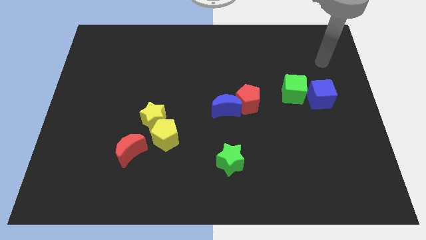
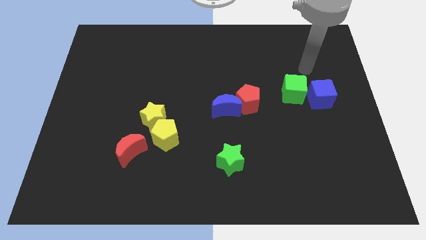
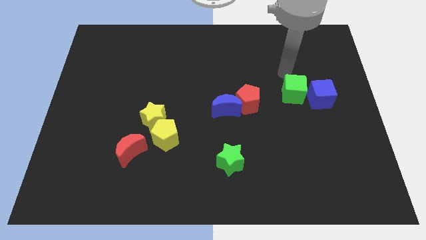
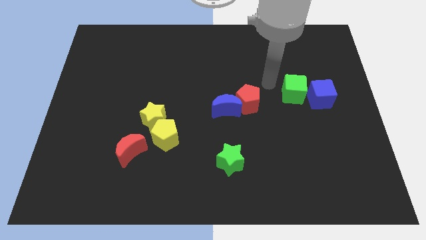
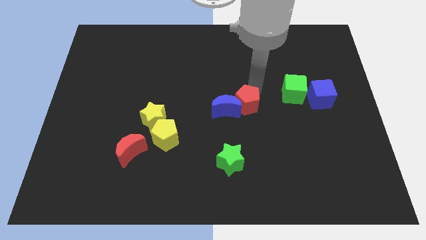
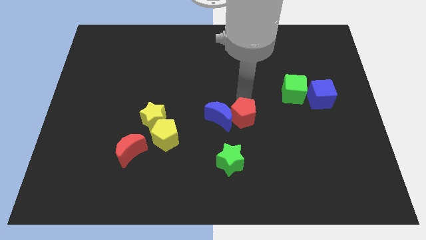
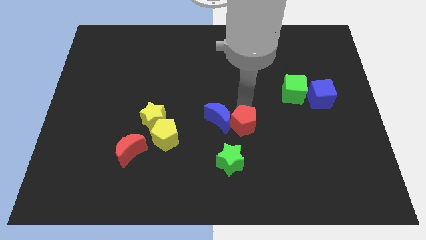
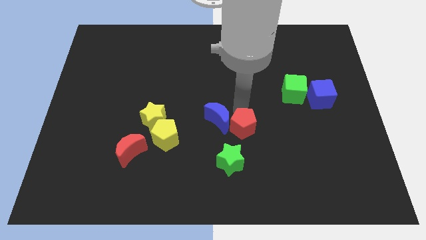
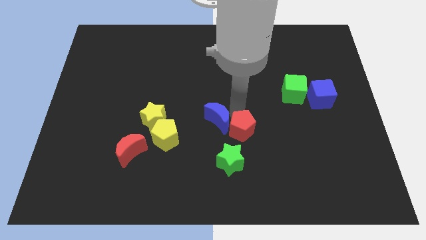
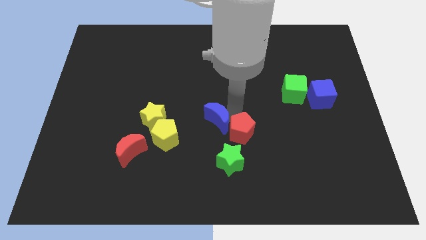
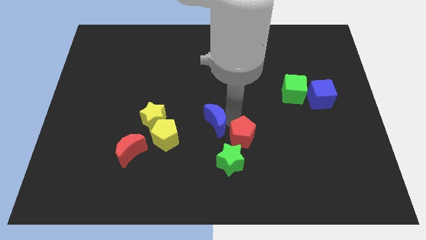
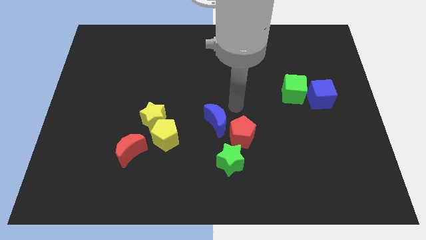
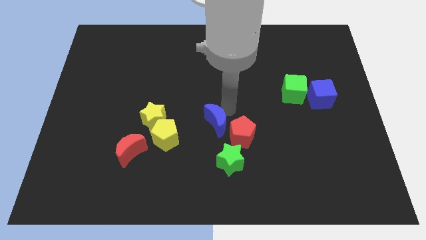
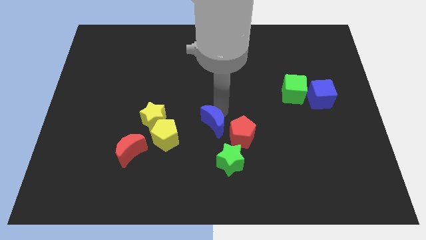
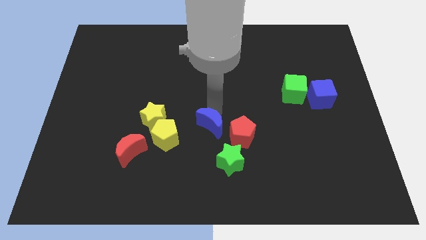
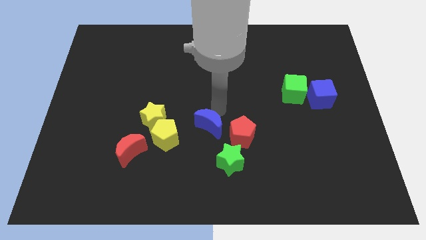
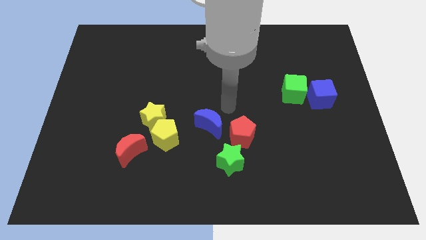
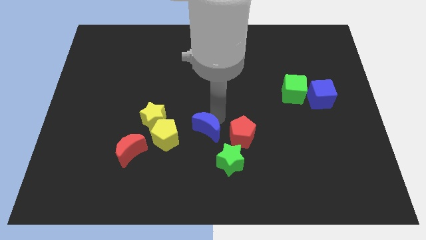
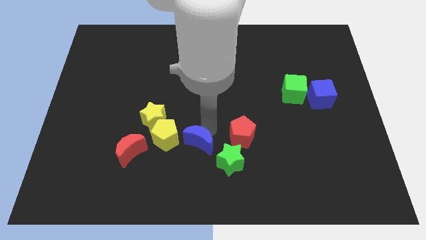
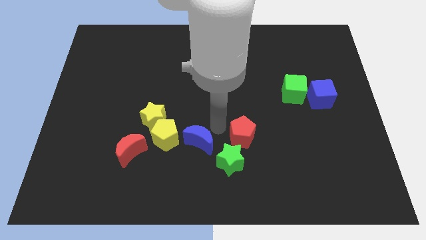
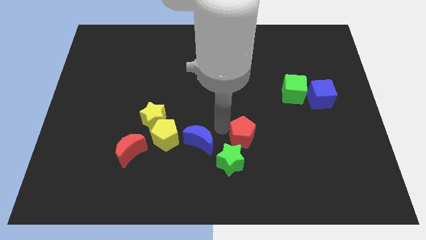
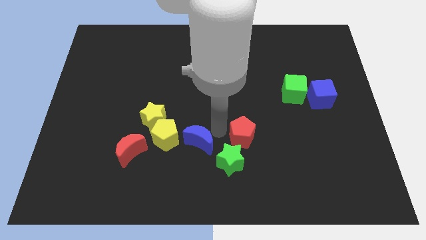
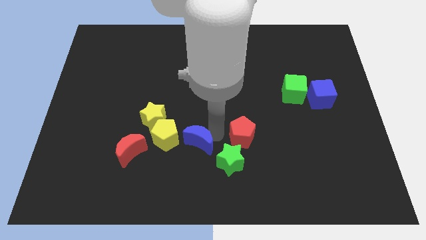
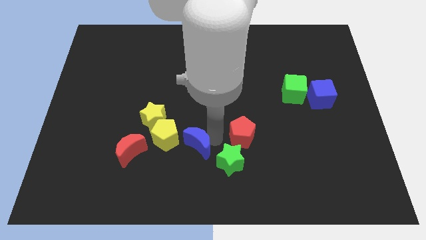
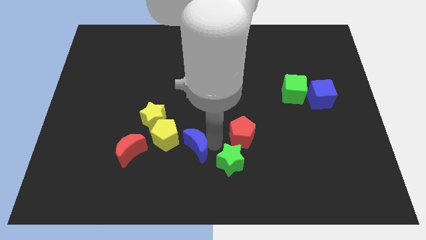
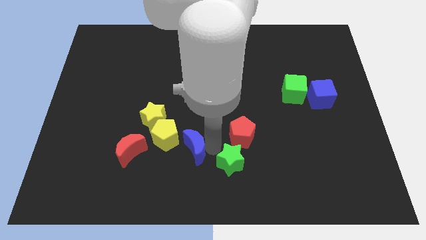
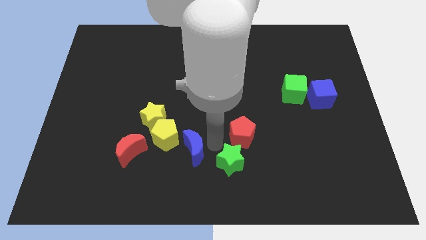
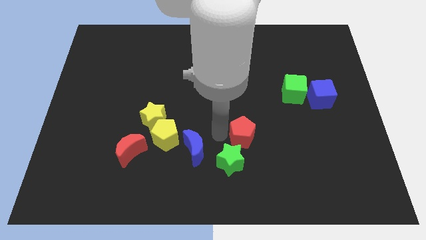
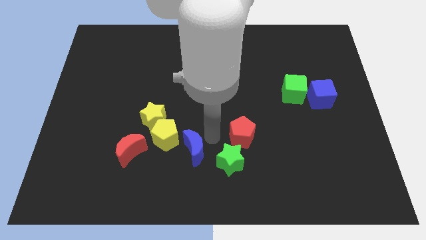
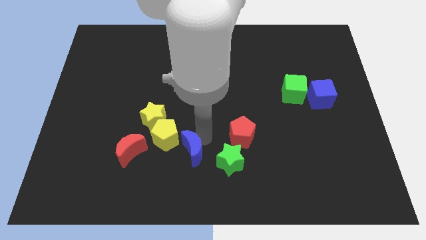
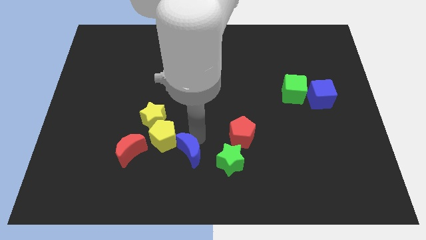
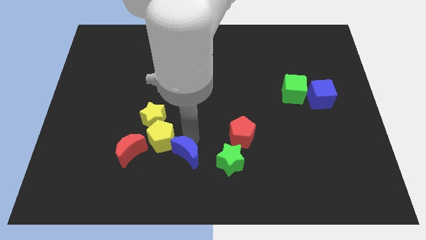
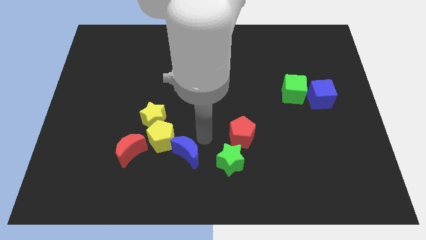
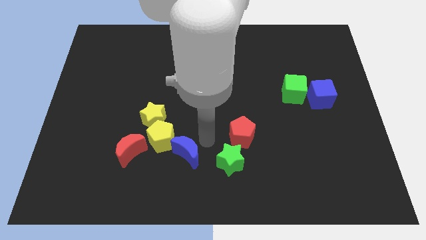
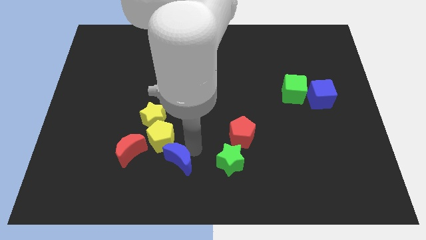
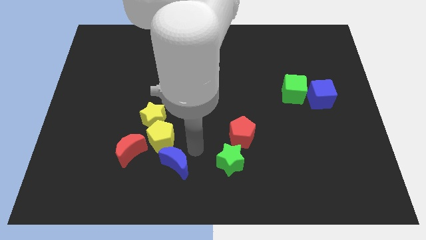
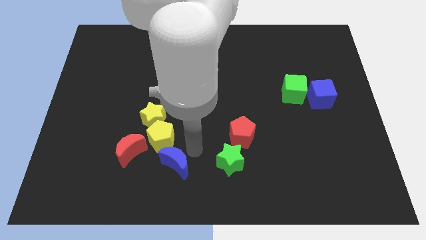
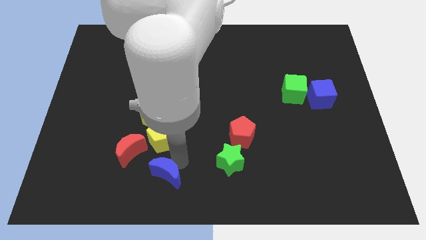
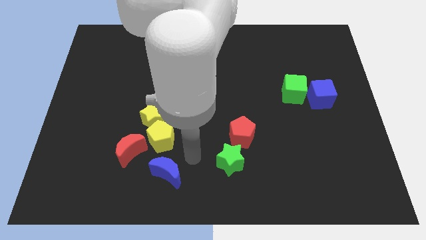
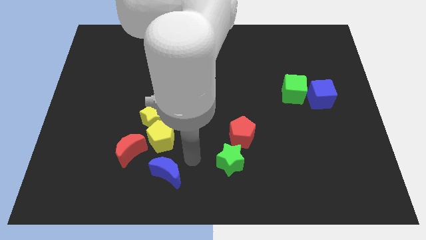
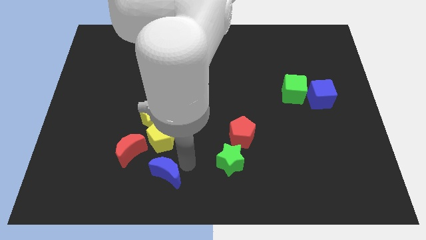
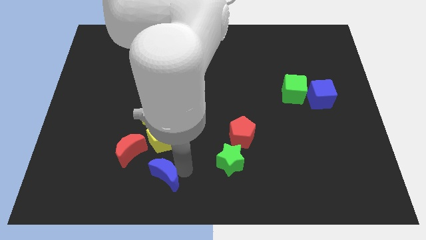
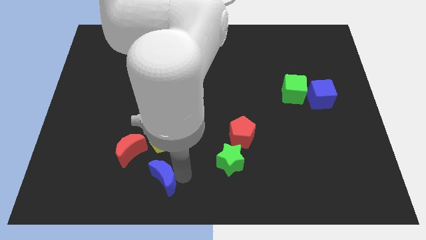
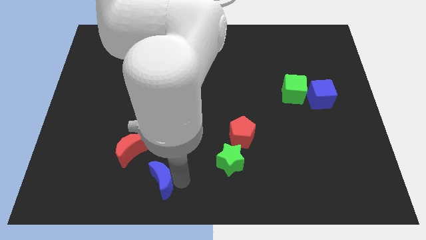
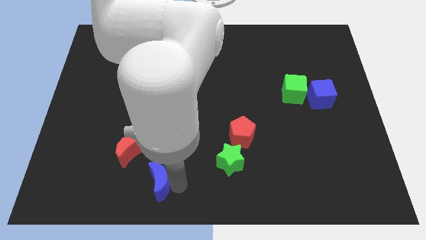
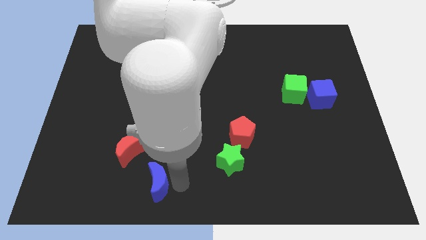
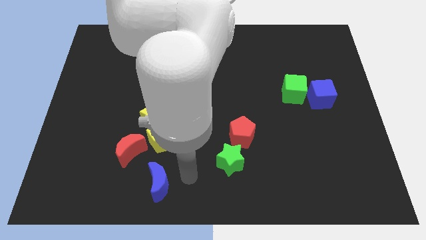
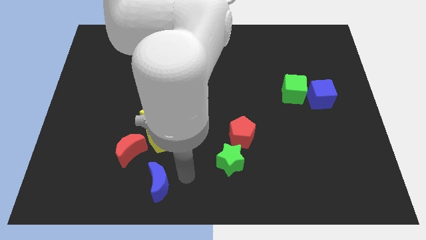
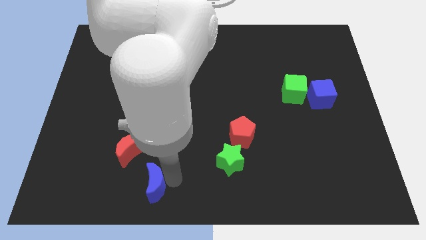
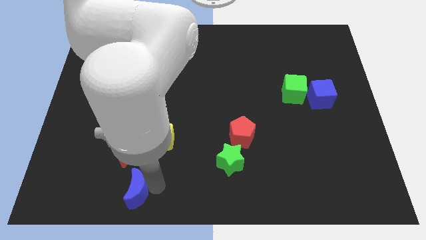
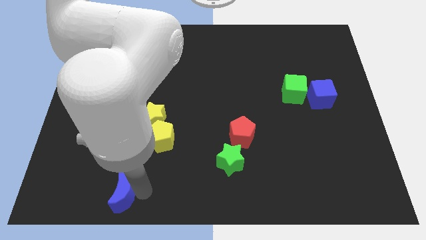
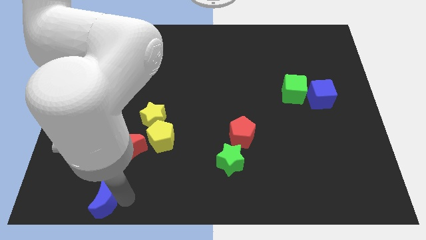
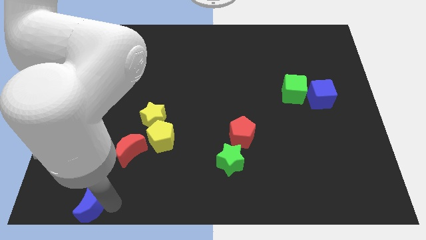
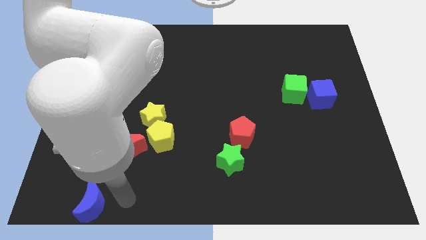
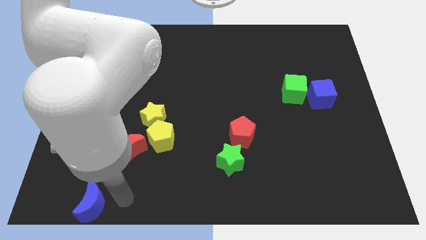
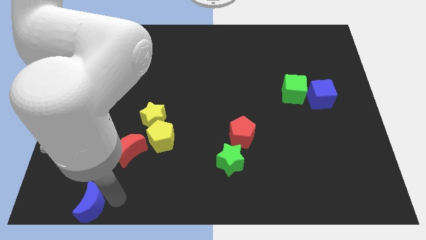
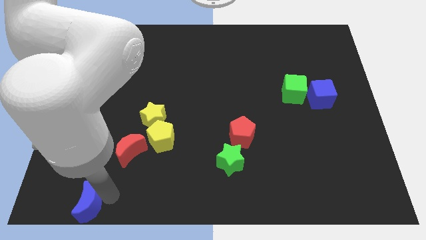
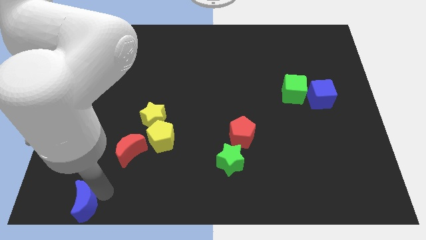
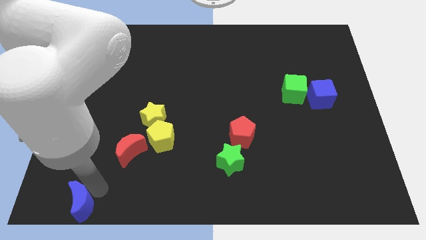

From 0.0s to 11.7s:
slide the blue moon to the bottom left corner

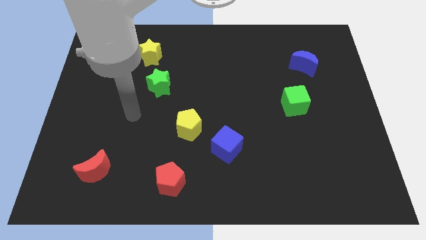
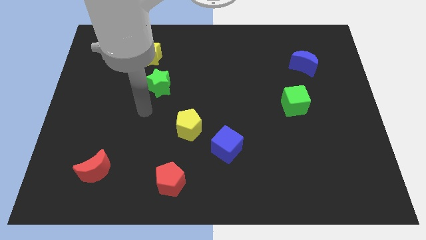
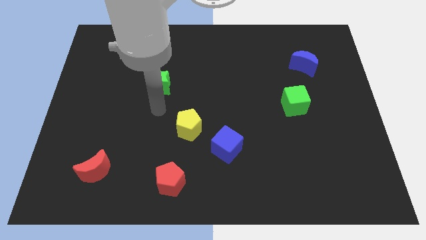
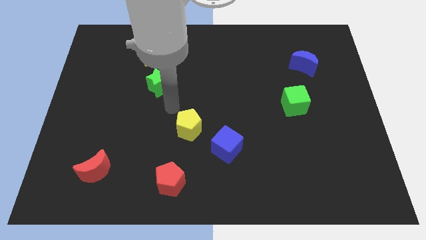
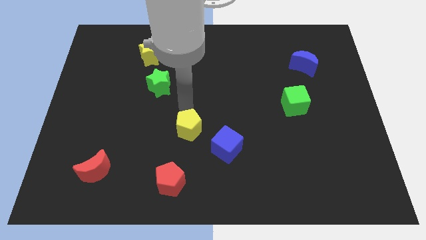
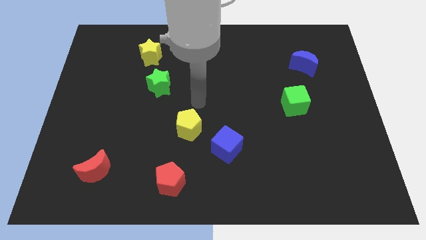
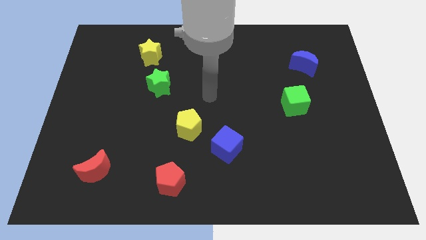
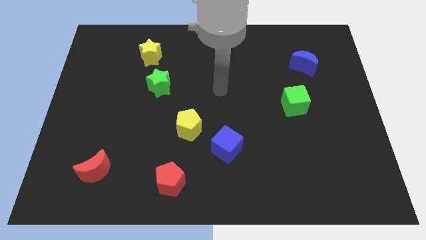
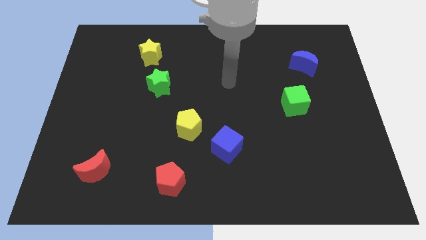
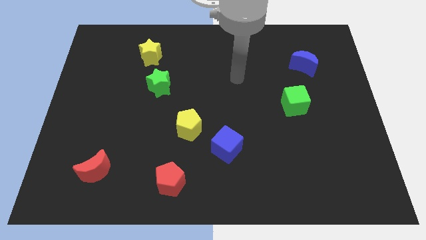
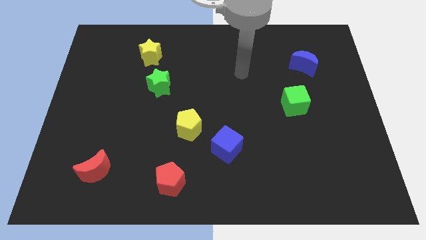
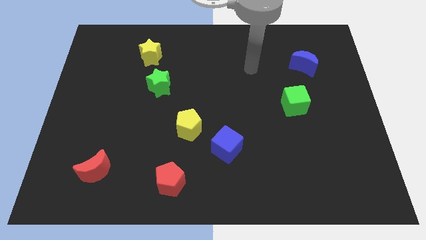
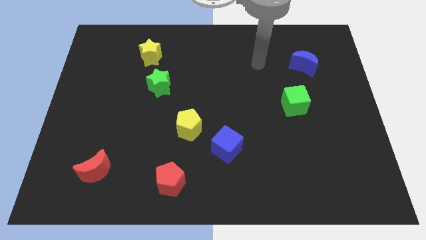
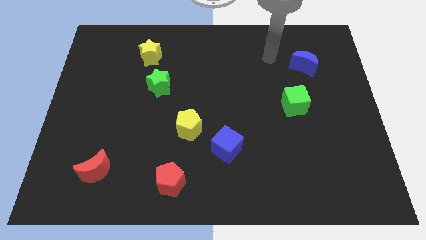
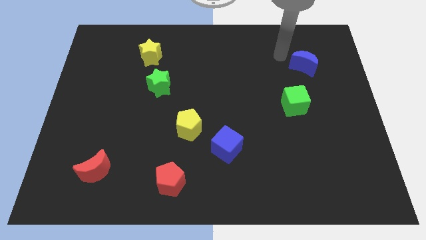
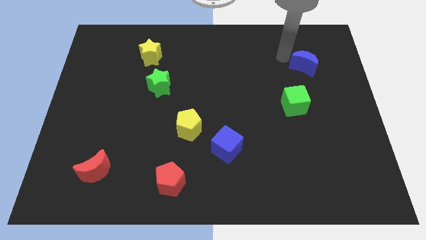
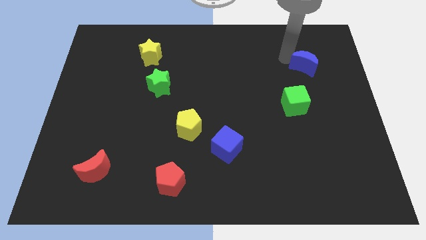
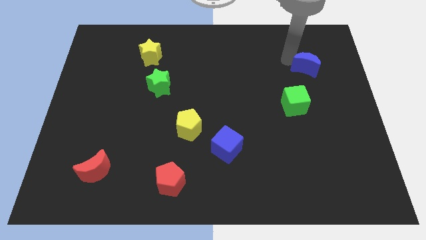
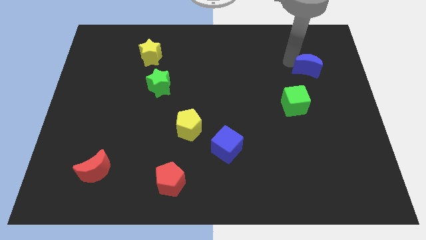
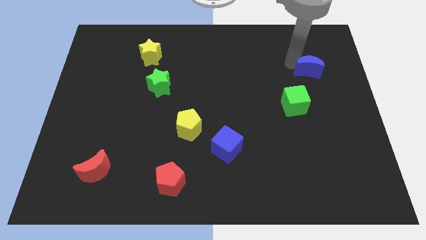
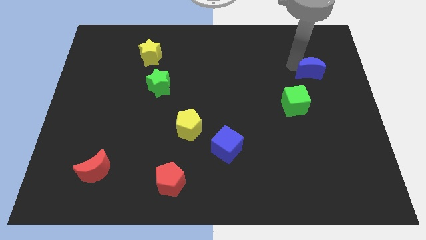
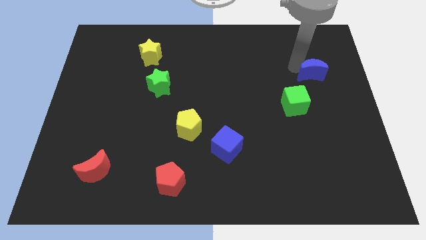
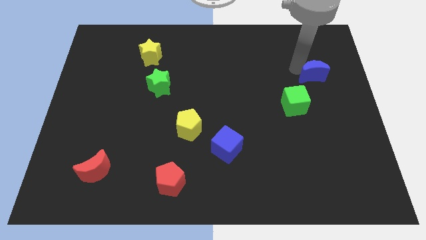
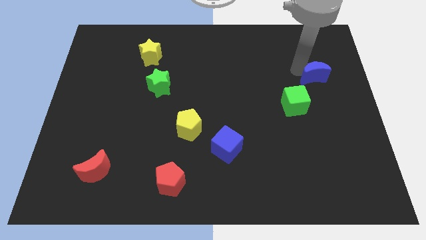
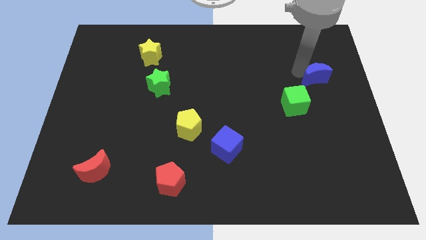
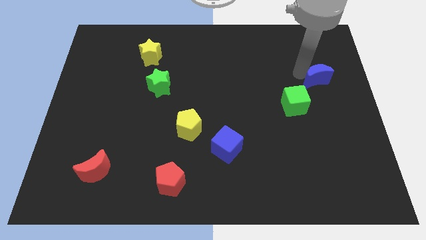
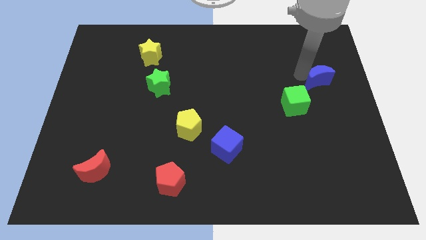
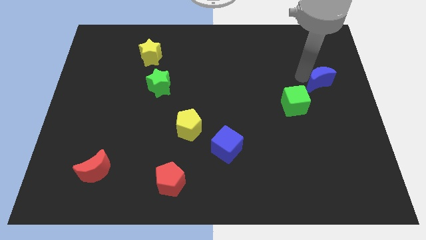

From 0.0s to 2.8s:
push the blue moon to the right side of the board
